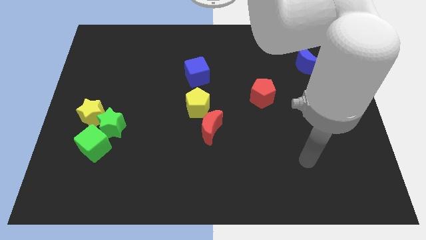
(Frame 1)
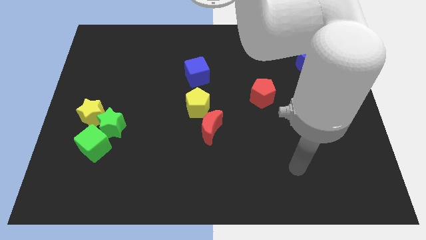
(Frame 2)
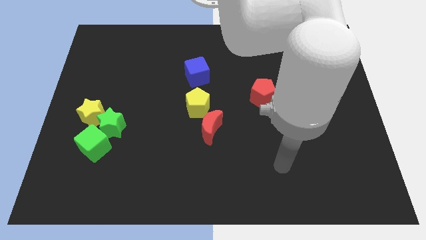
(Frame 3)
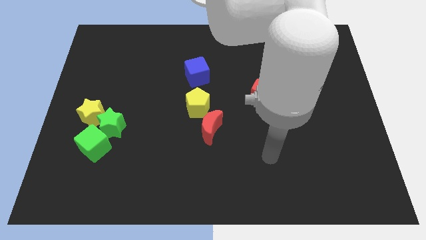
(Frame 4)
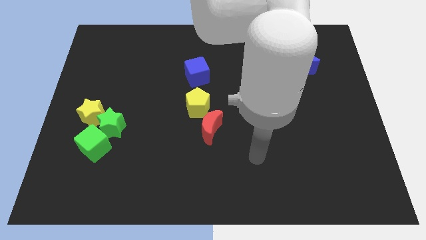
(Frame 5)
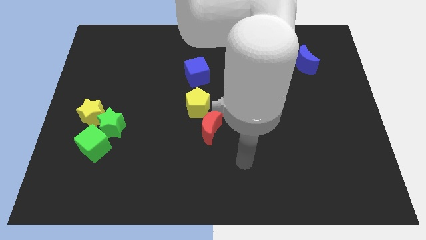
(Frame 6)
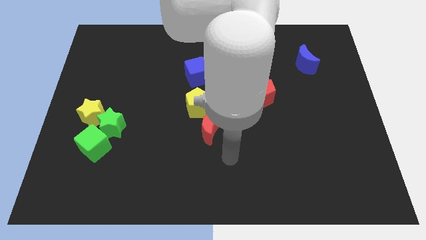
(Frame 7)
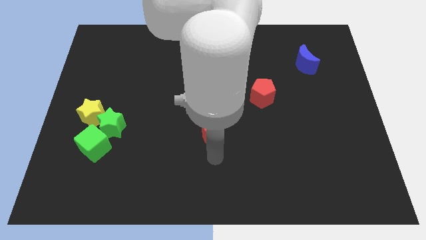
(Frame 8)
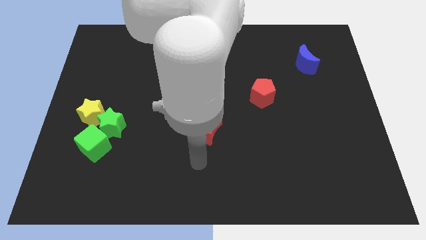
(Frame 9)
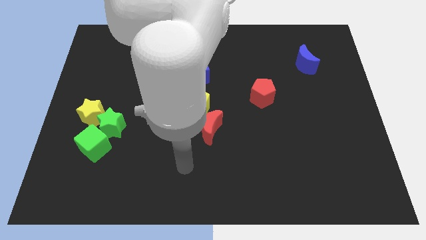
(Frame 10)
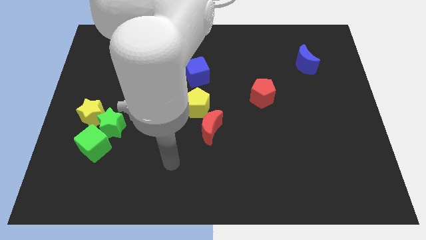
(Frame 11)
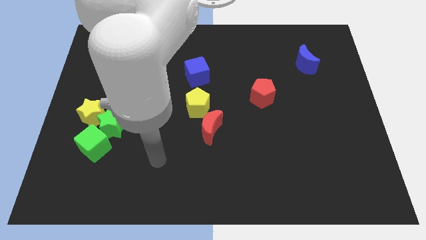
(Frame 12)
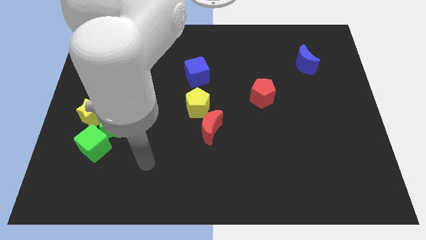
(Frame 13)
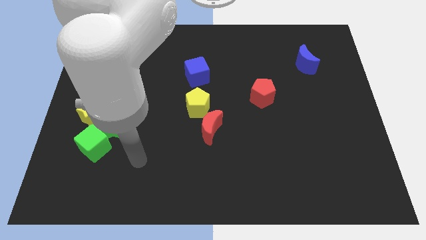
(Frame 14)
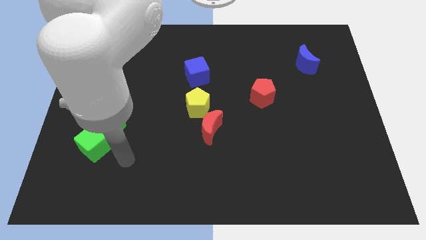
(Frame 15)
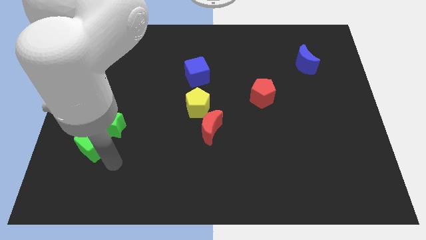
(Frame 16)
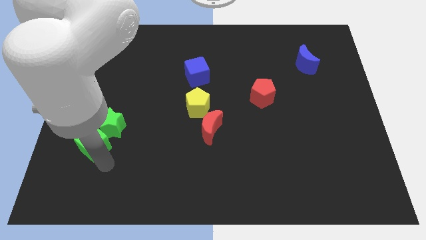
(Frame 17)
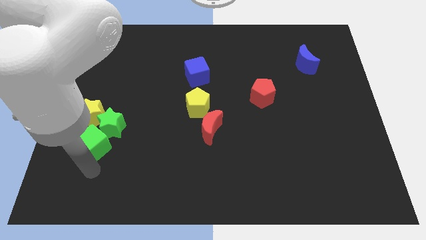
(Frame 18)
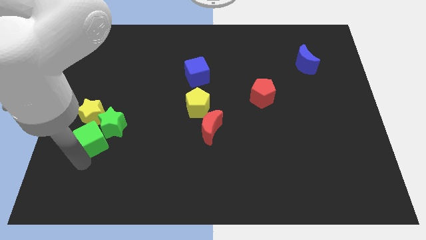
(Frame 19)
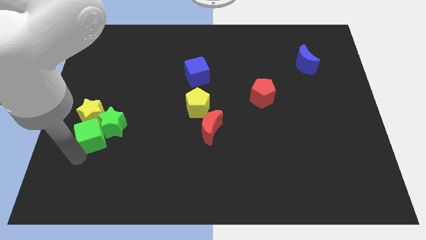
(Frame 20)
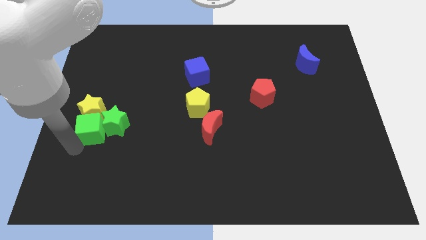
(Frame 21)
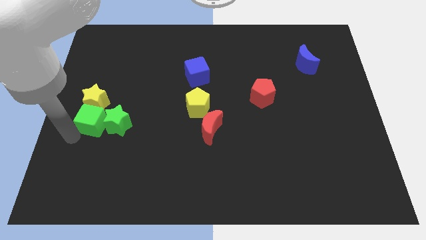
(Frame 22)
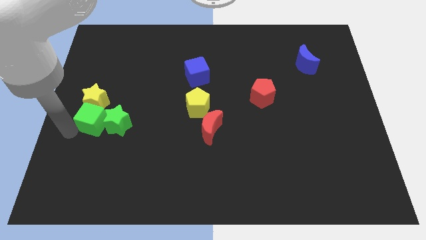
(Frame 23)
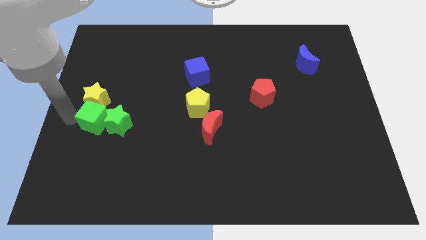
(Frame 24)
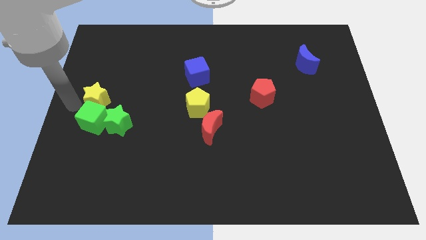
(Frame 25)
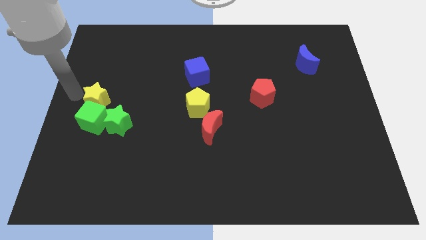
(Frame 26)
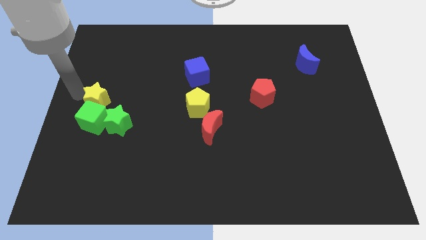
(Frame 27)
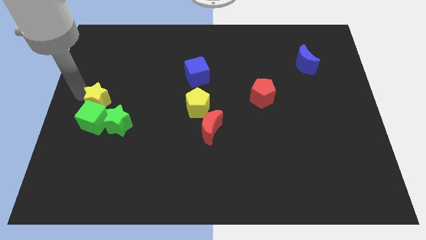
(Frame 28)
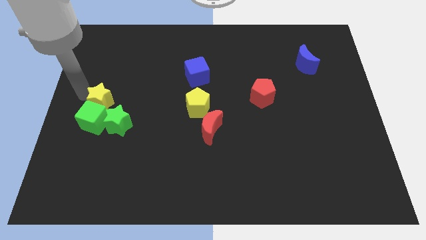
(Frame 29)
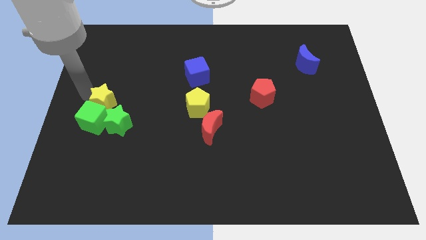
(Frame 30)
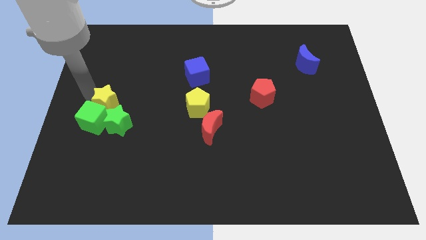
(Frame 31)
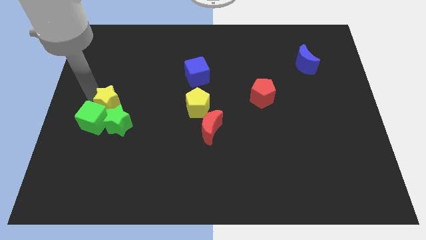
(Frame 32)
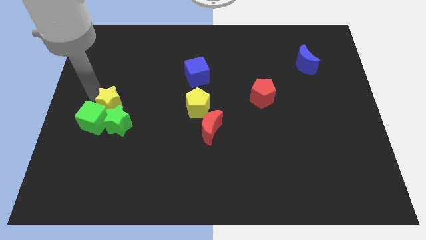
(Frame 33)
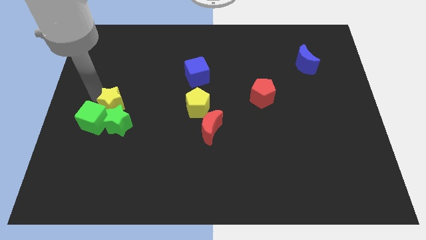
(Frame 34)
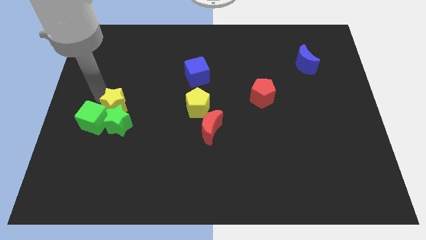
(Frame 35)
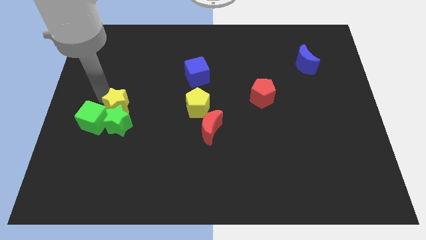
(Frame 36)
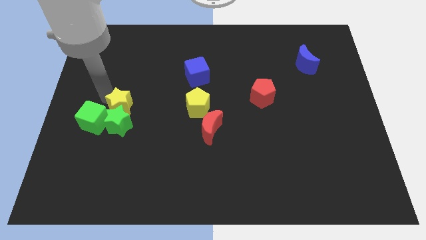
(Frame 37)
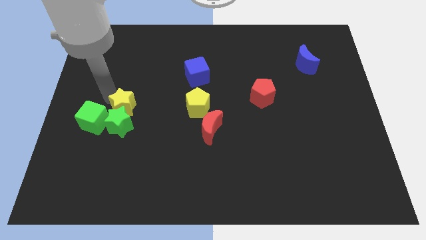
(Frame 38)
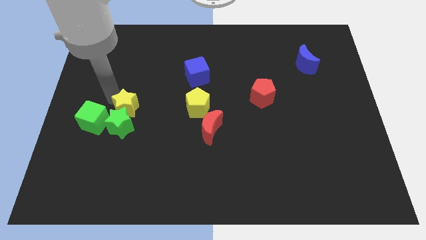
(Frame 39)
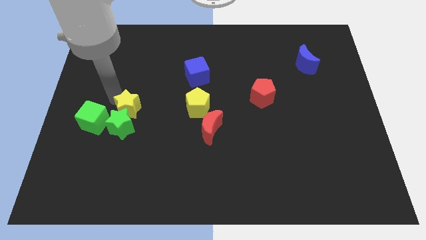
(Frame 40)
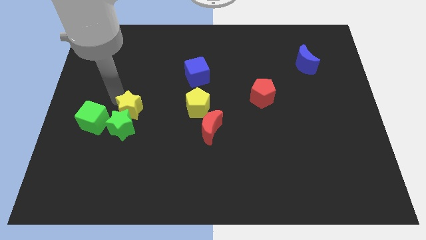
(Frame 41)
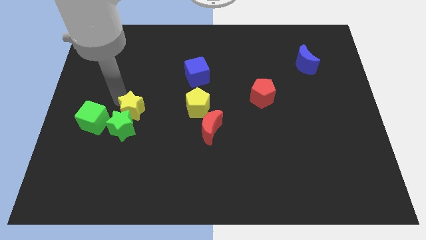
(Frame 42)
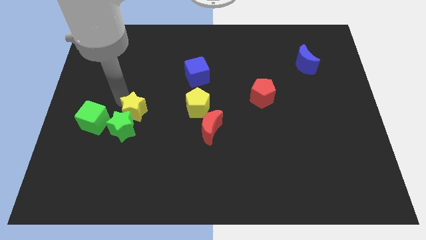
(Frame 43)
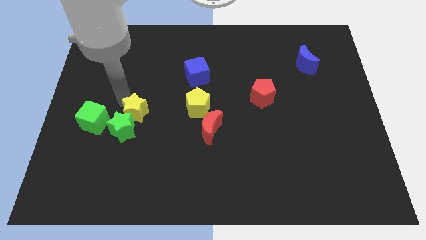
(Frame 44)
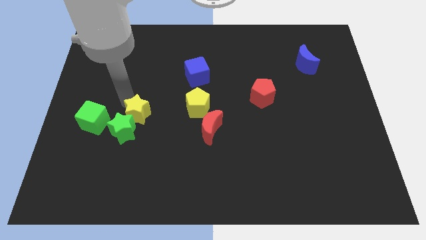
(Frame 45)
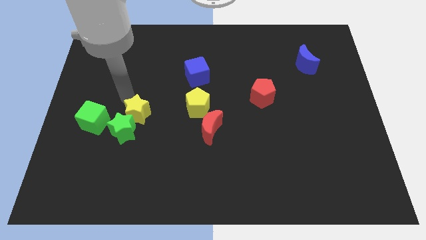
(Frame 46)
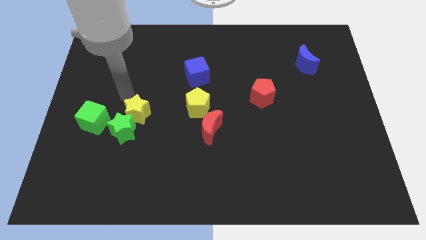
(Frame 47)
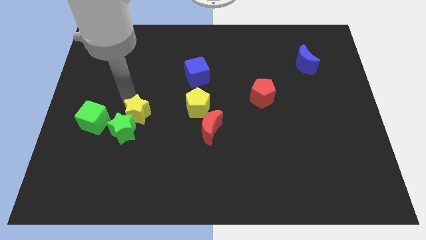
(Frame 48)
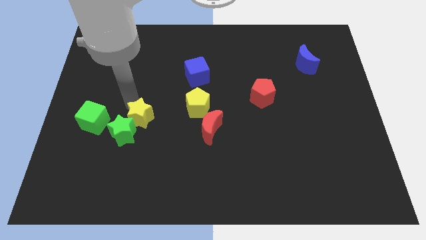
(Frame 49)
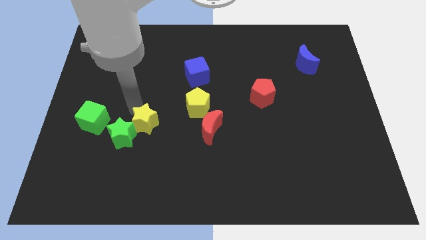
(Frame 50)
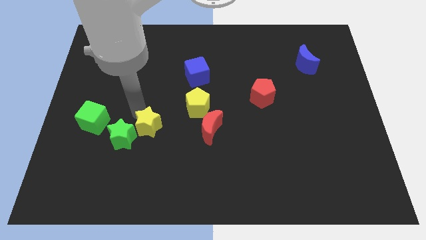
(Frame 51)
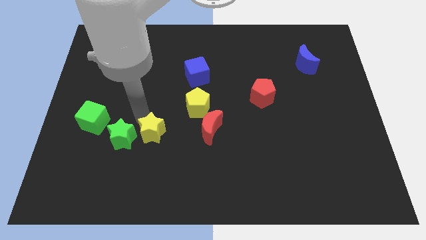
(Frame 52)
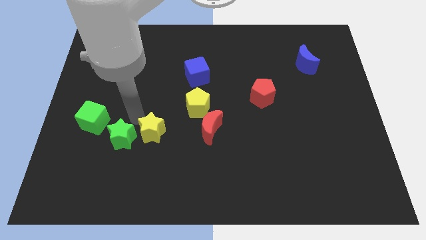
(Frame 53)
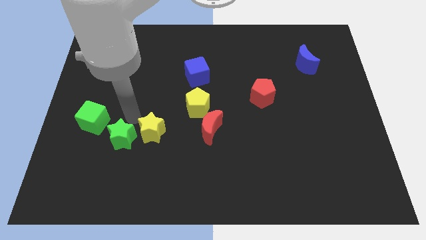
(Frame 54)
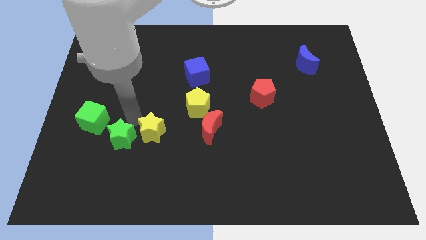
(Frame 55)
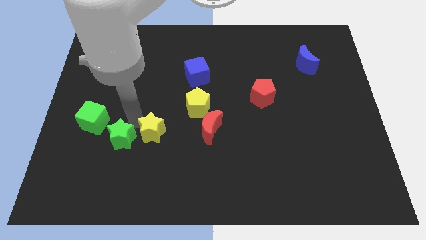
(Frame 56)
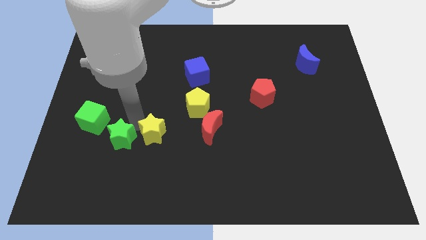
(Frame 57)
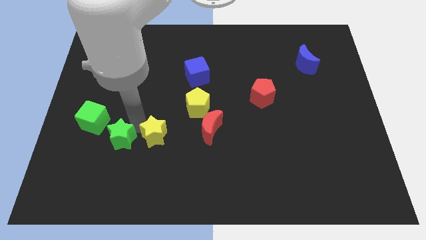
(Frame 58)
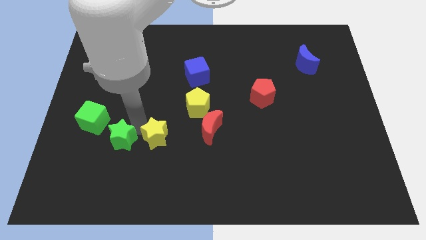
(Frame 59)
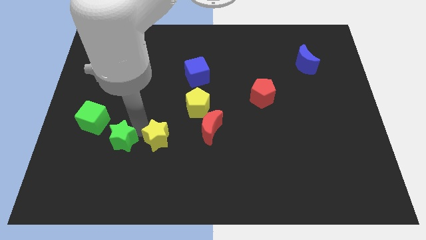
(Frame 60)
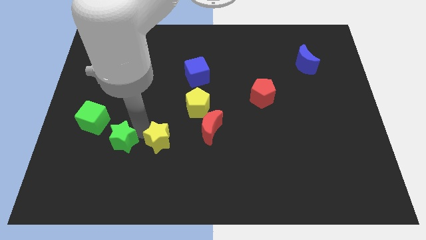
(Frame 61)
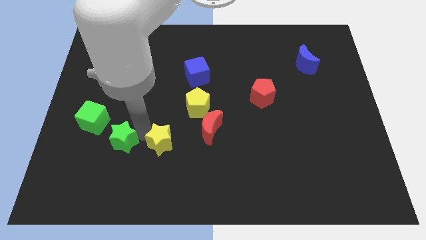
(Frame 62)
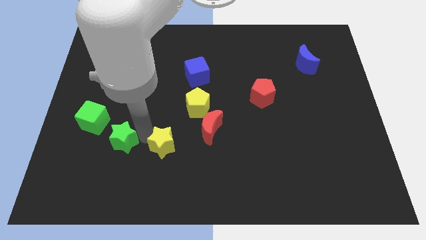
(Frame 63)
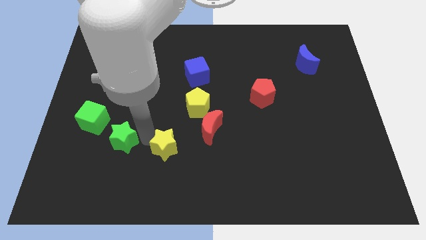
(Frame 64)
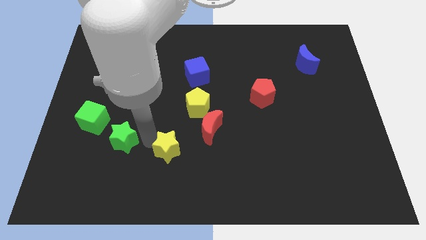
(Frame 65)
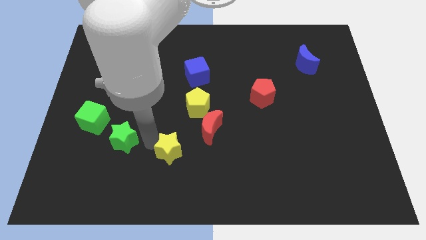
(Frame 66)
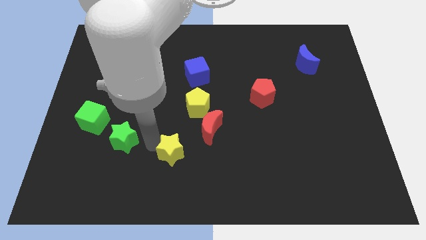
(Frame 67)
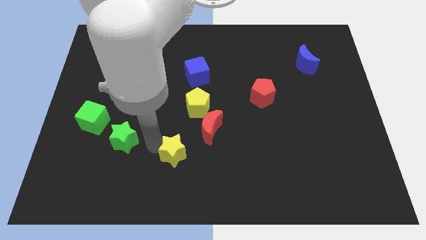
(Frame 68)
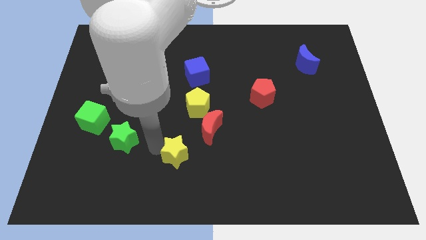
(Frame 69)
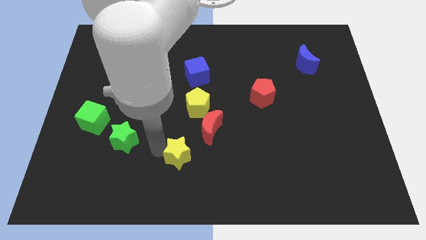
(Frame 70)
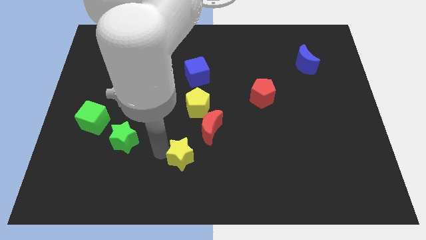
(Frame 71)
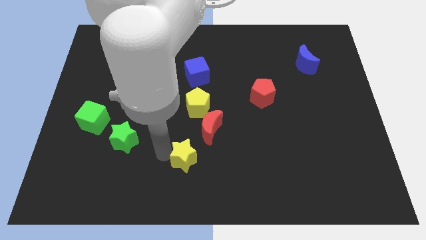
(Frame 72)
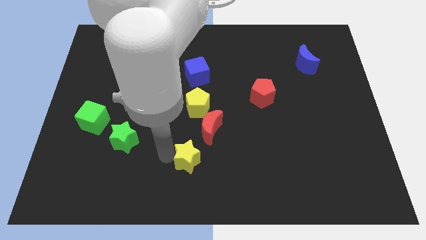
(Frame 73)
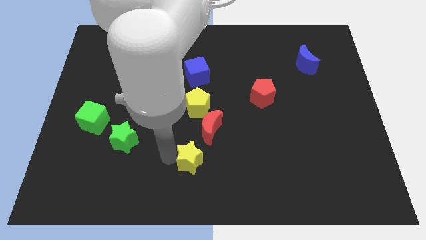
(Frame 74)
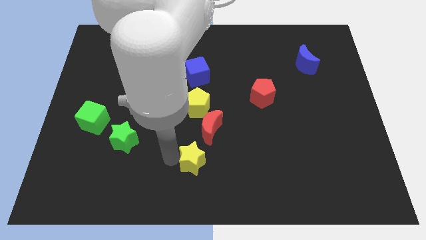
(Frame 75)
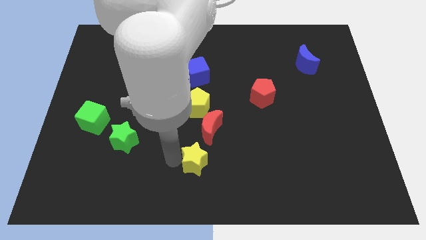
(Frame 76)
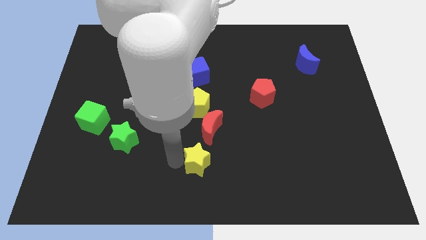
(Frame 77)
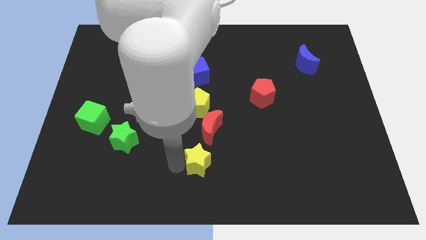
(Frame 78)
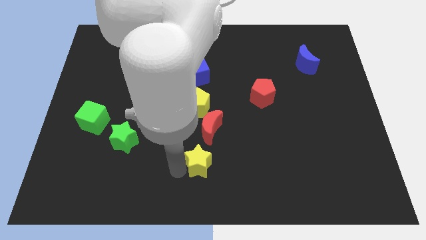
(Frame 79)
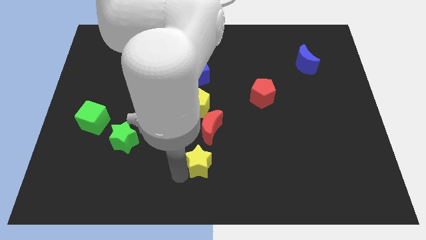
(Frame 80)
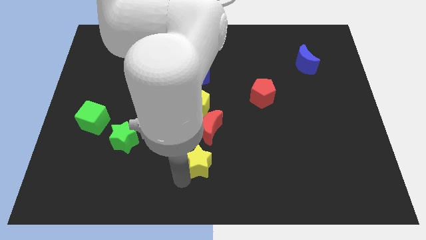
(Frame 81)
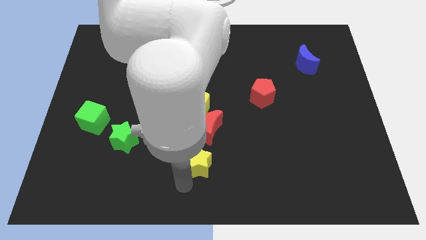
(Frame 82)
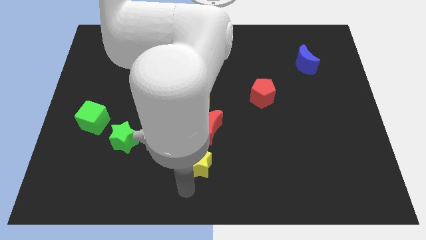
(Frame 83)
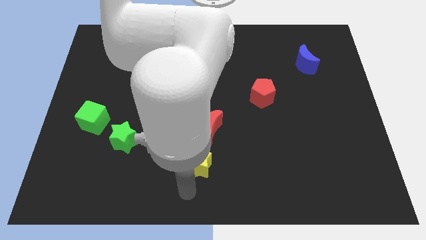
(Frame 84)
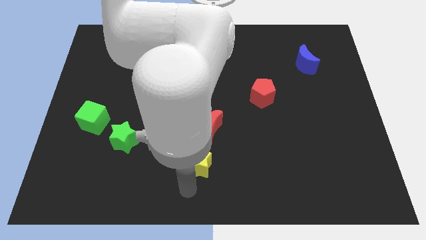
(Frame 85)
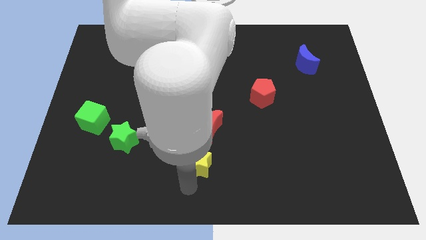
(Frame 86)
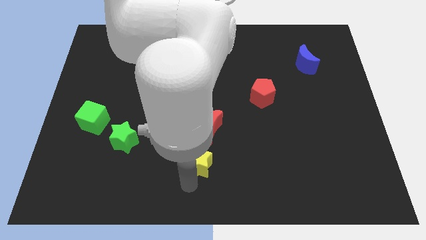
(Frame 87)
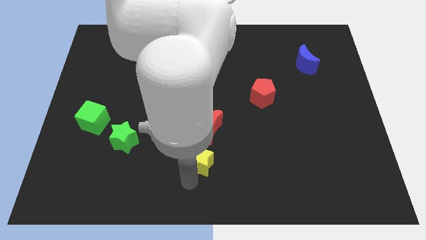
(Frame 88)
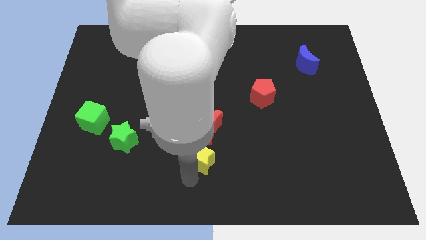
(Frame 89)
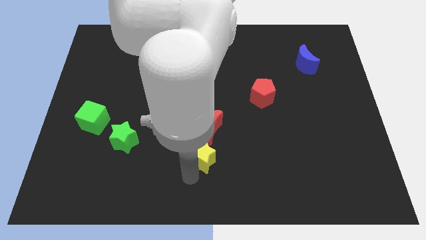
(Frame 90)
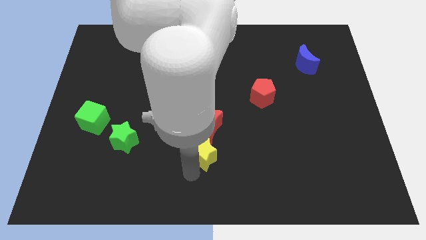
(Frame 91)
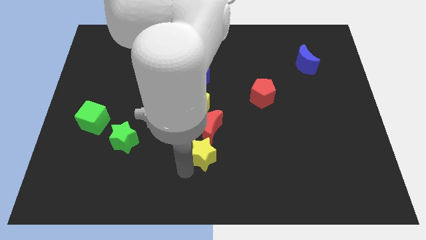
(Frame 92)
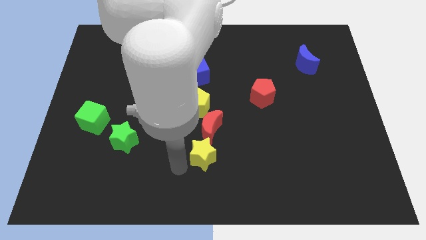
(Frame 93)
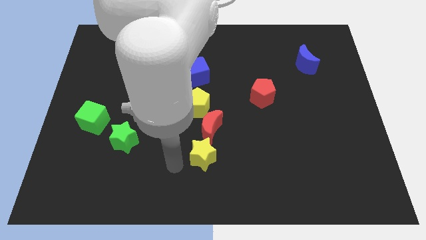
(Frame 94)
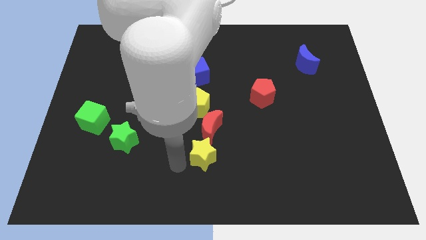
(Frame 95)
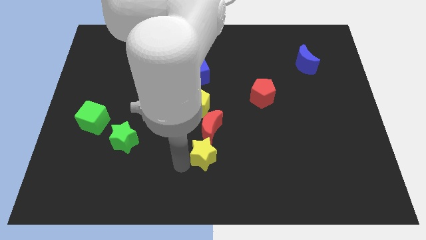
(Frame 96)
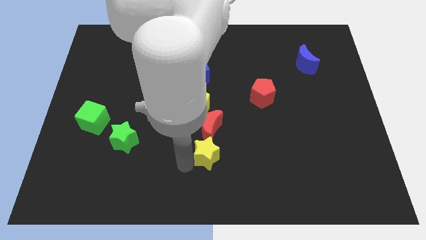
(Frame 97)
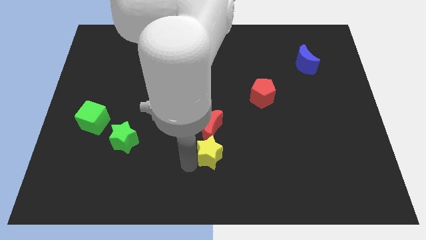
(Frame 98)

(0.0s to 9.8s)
push the yellow star to the bottom right side of the red moon
